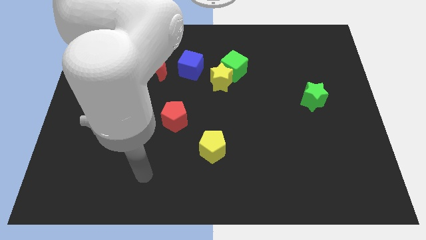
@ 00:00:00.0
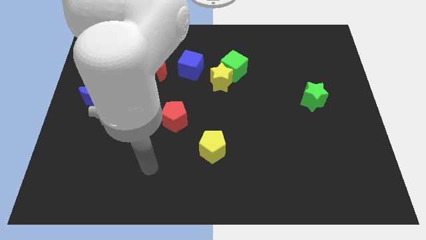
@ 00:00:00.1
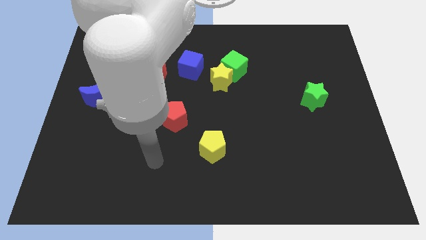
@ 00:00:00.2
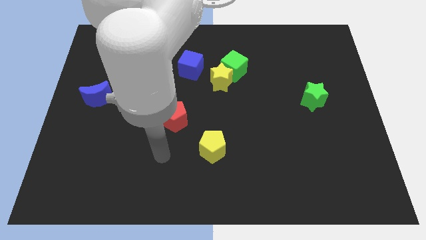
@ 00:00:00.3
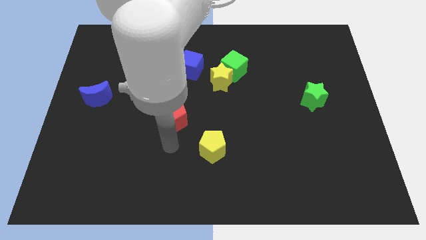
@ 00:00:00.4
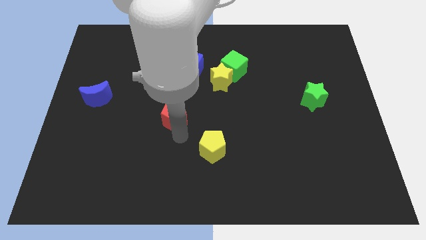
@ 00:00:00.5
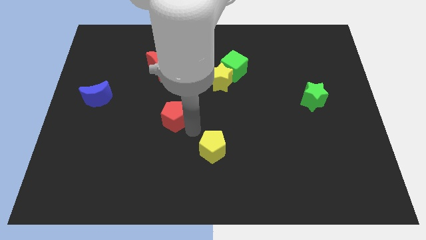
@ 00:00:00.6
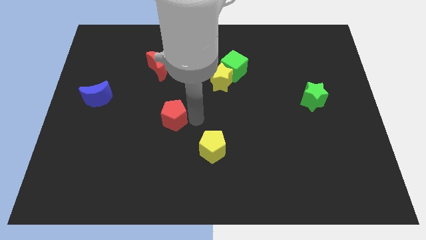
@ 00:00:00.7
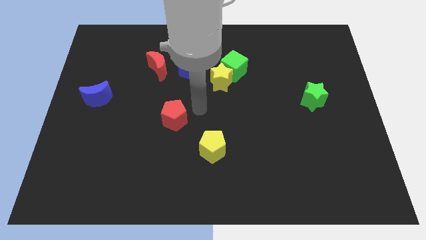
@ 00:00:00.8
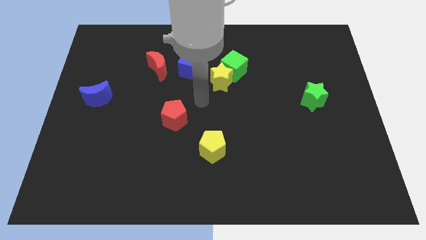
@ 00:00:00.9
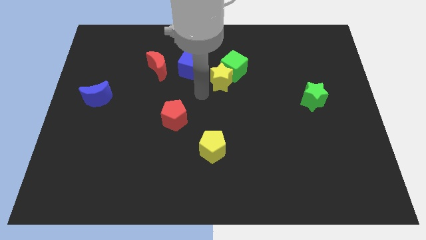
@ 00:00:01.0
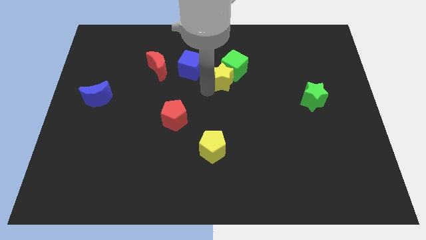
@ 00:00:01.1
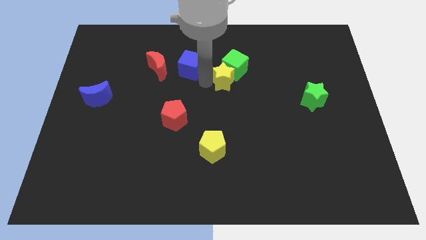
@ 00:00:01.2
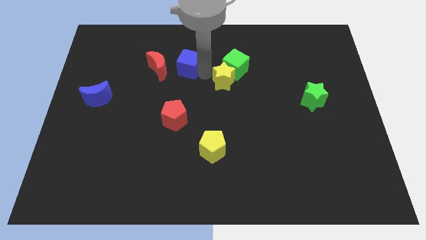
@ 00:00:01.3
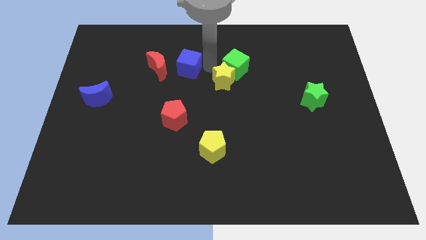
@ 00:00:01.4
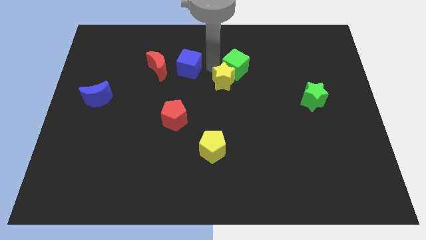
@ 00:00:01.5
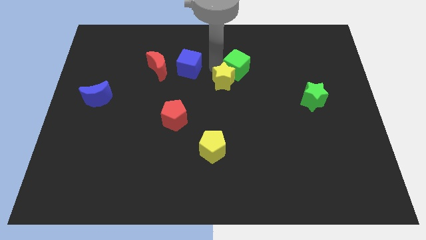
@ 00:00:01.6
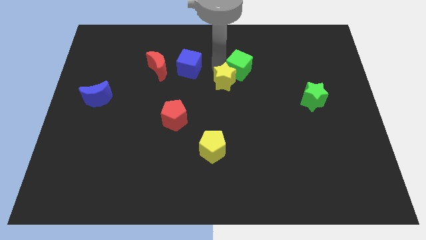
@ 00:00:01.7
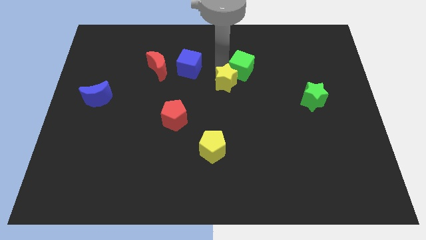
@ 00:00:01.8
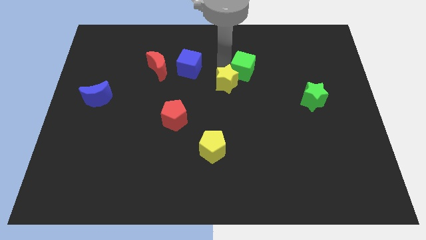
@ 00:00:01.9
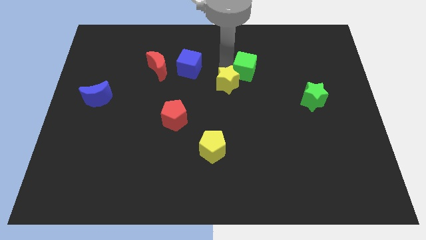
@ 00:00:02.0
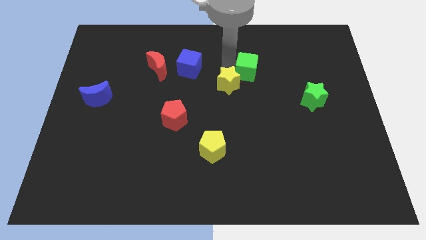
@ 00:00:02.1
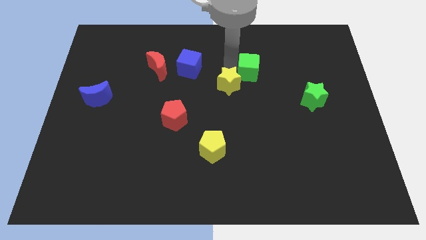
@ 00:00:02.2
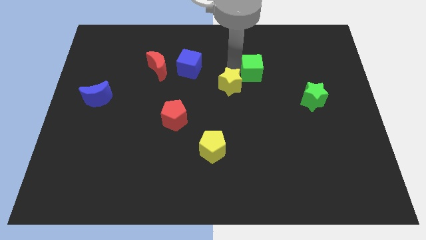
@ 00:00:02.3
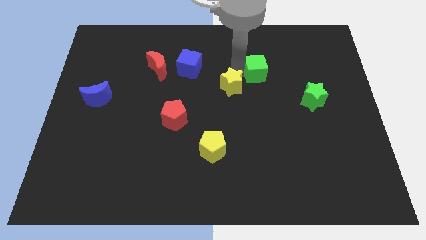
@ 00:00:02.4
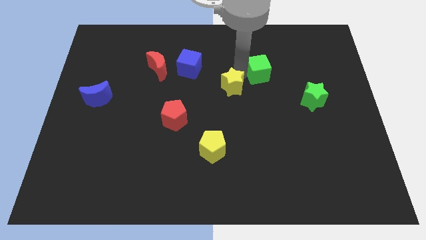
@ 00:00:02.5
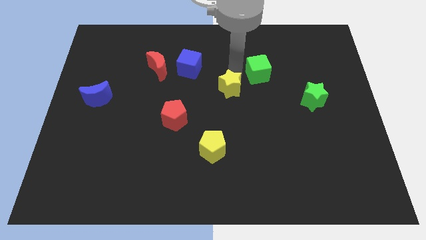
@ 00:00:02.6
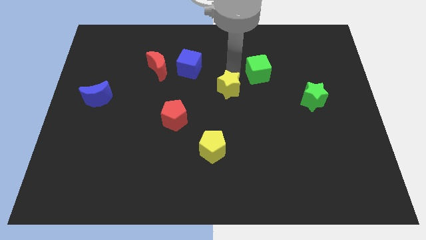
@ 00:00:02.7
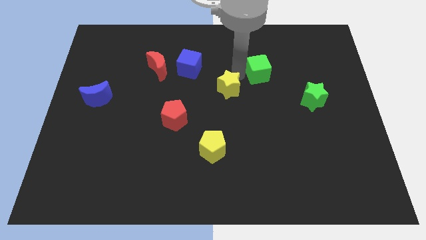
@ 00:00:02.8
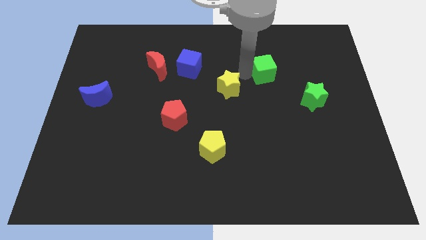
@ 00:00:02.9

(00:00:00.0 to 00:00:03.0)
slide the green cube right a little bit

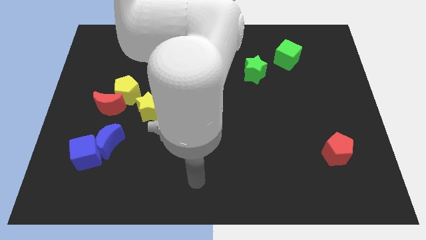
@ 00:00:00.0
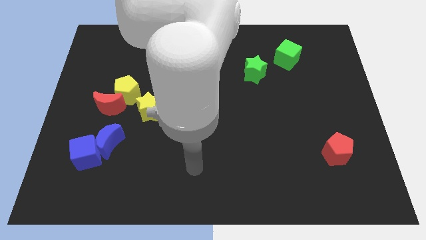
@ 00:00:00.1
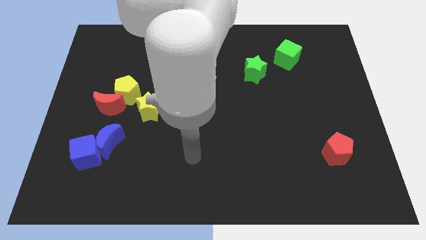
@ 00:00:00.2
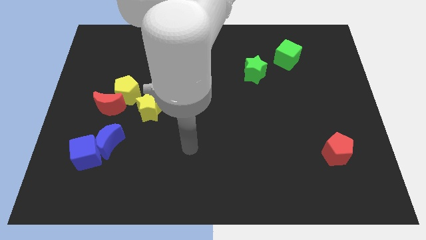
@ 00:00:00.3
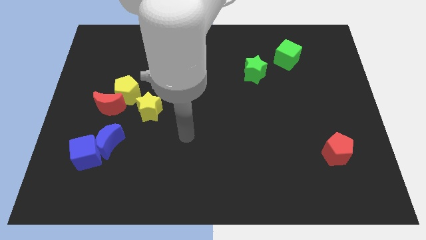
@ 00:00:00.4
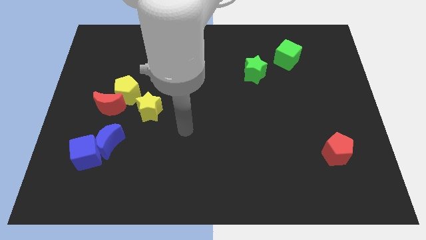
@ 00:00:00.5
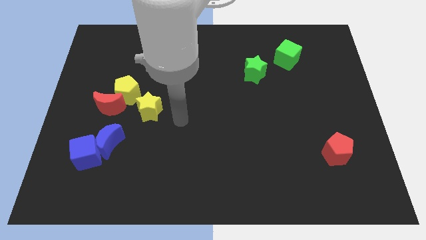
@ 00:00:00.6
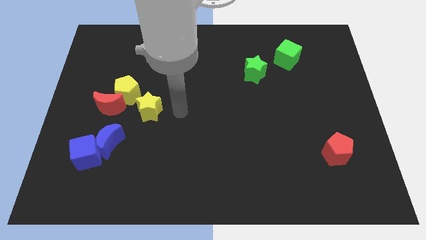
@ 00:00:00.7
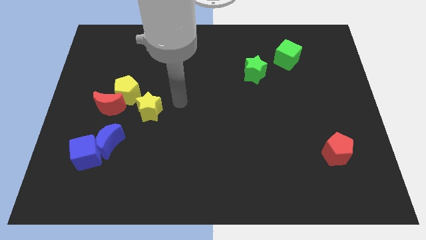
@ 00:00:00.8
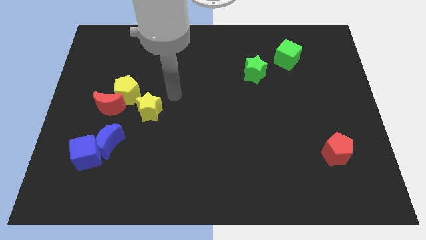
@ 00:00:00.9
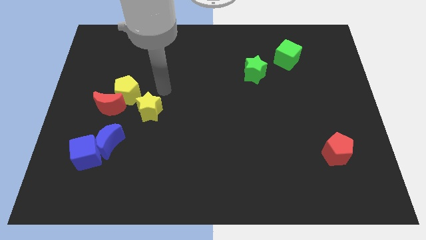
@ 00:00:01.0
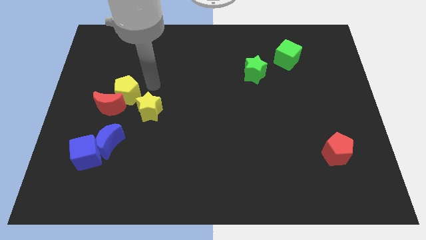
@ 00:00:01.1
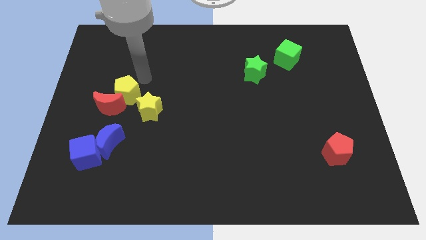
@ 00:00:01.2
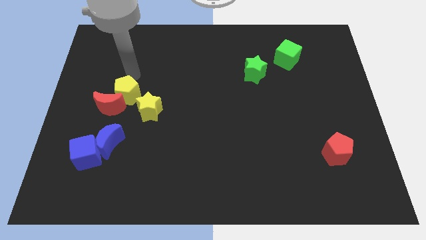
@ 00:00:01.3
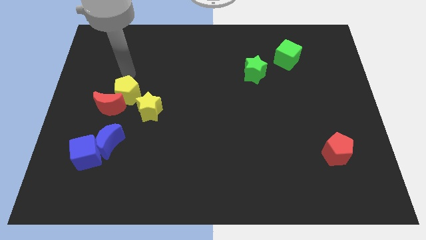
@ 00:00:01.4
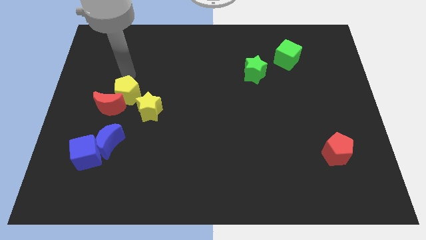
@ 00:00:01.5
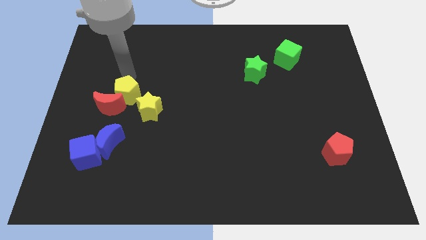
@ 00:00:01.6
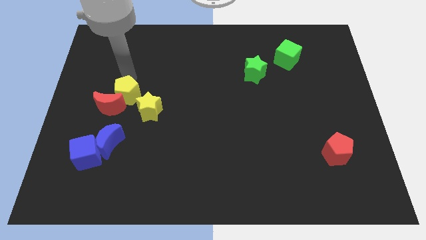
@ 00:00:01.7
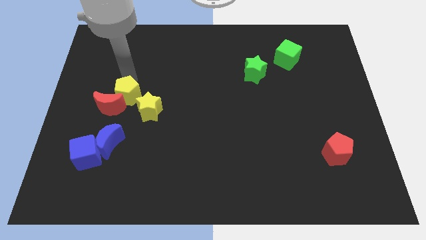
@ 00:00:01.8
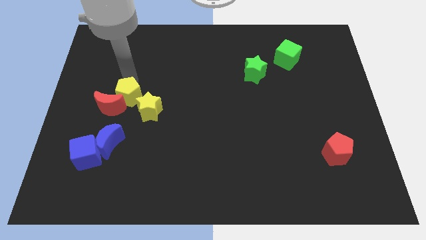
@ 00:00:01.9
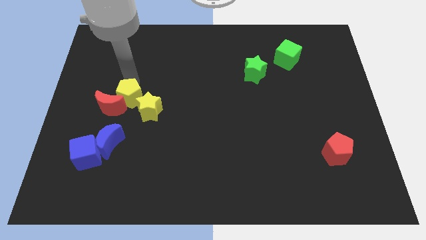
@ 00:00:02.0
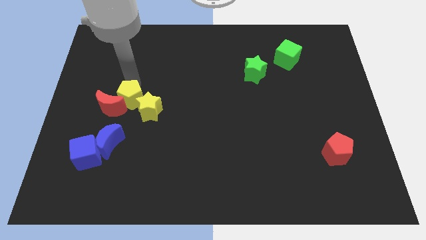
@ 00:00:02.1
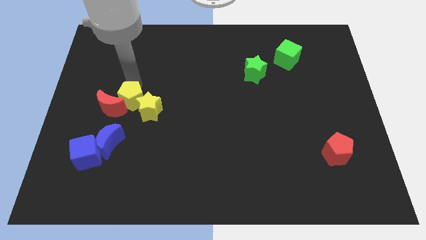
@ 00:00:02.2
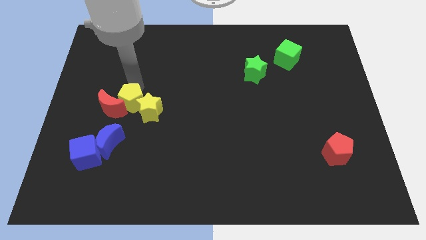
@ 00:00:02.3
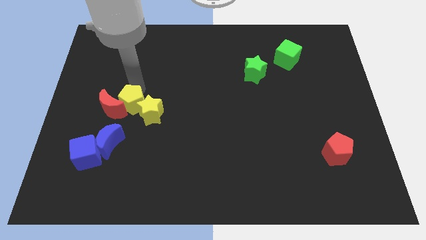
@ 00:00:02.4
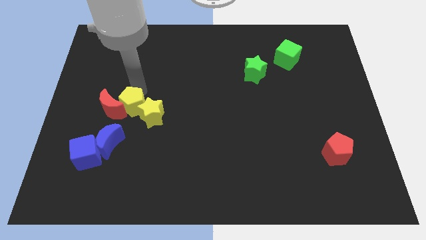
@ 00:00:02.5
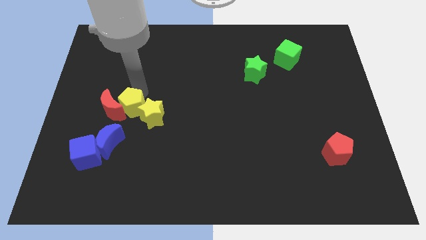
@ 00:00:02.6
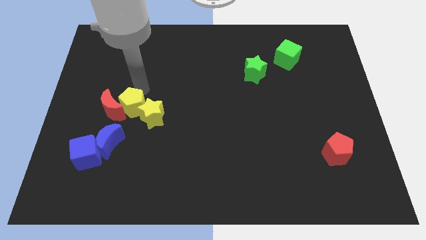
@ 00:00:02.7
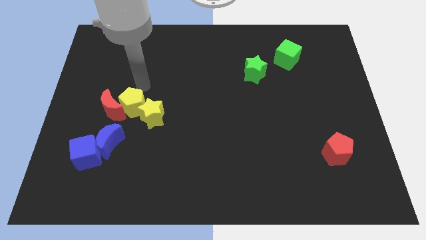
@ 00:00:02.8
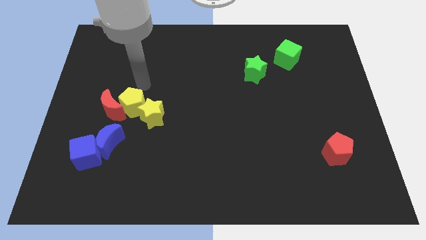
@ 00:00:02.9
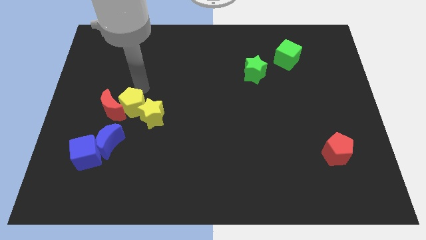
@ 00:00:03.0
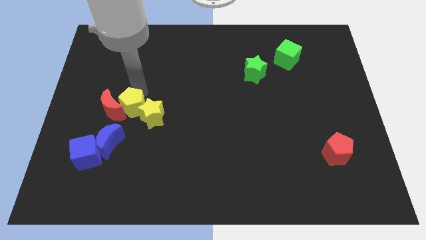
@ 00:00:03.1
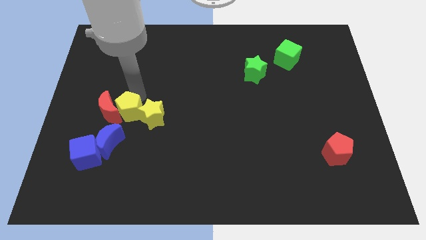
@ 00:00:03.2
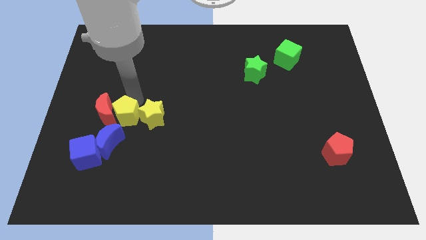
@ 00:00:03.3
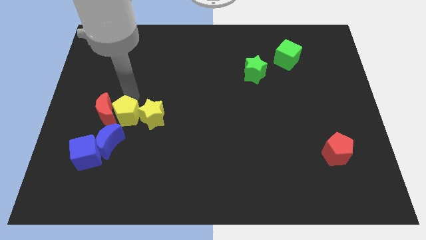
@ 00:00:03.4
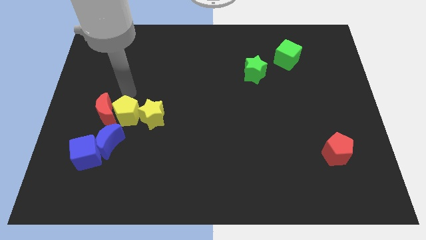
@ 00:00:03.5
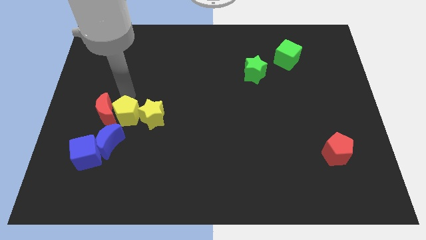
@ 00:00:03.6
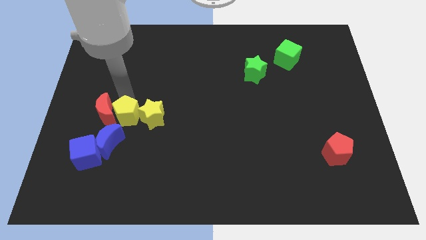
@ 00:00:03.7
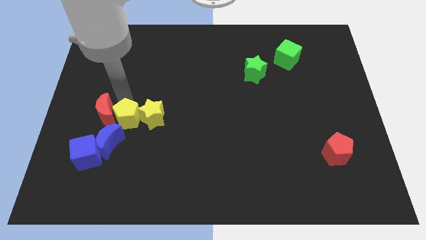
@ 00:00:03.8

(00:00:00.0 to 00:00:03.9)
slightly slide the yellow pentagon down

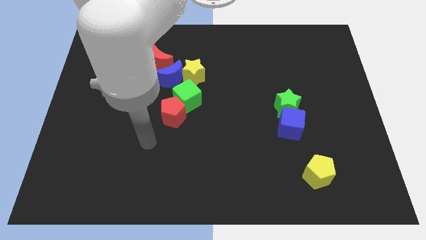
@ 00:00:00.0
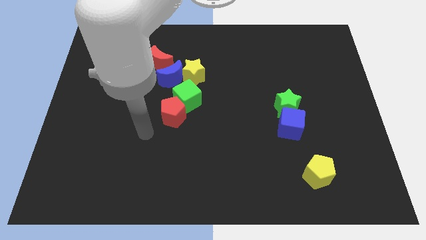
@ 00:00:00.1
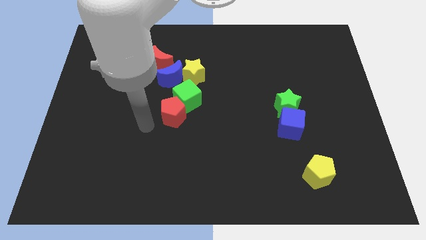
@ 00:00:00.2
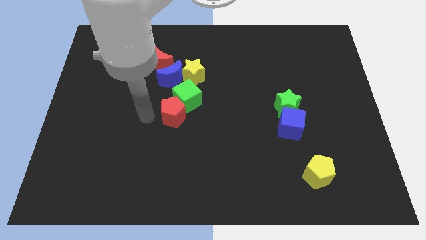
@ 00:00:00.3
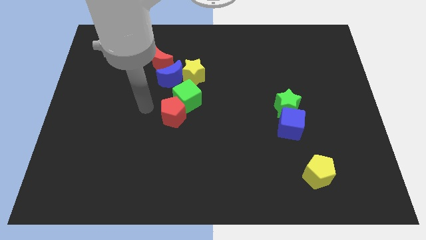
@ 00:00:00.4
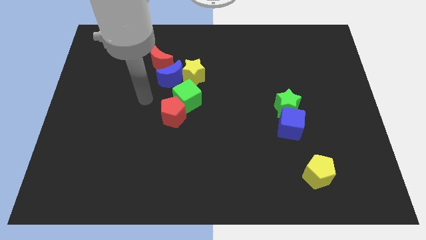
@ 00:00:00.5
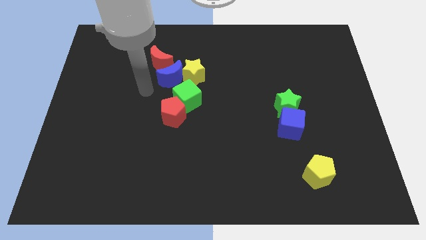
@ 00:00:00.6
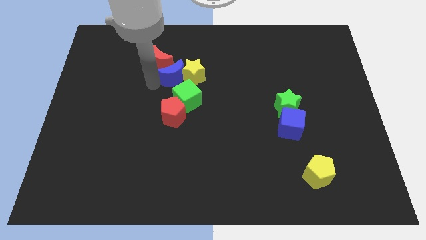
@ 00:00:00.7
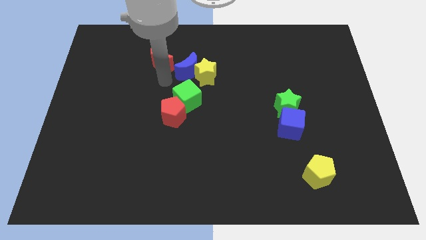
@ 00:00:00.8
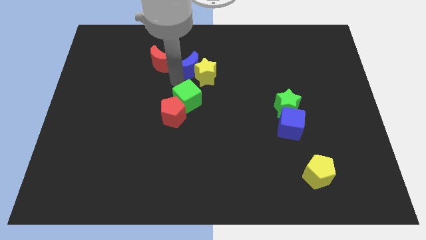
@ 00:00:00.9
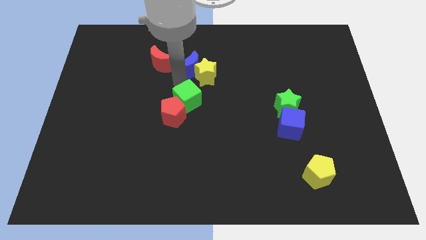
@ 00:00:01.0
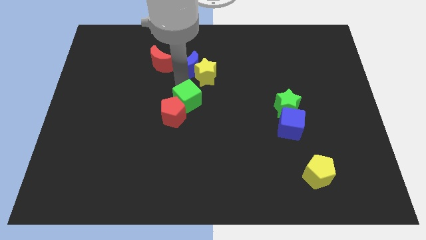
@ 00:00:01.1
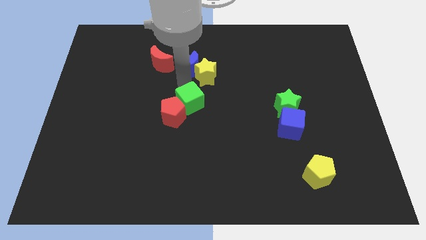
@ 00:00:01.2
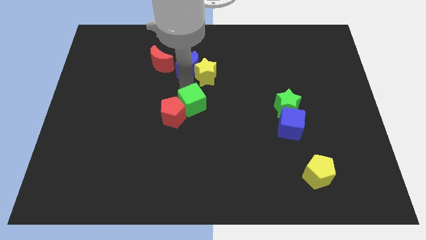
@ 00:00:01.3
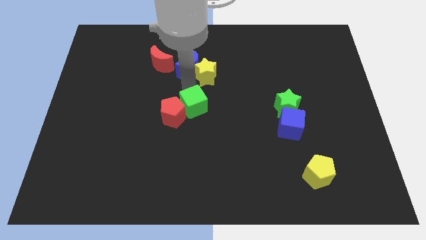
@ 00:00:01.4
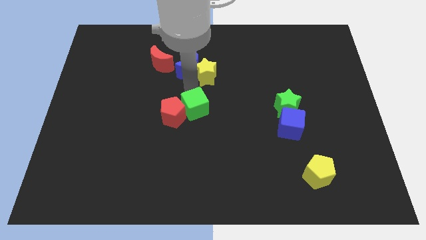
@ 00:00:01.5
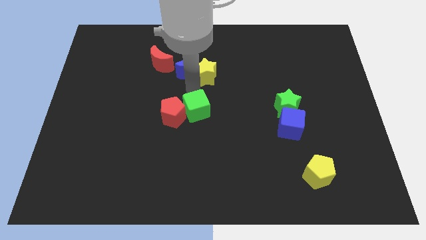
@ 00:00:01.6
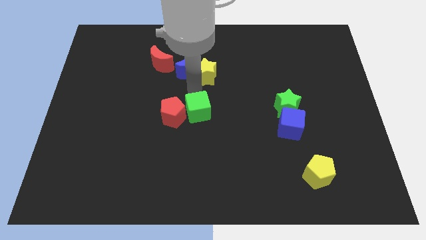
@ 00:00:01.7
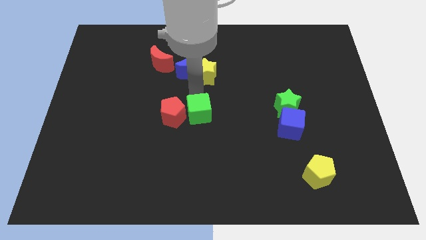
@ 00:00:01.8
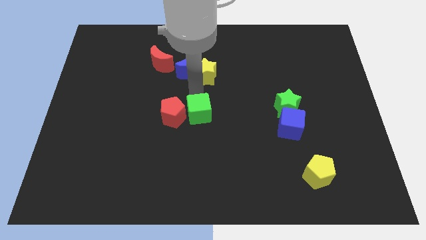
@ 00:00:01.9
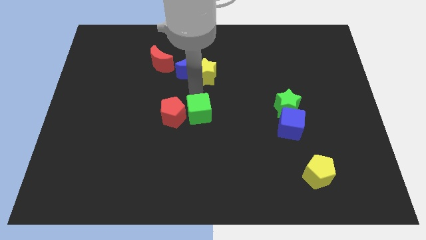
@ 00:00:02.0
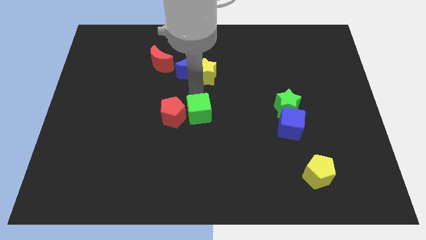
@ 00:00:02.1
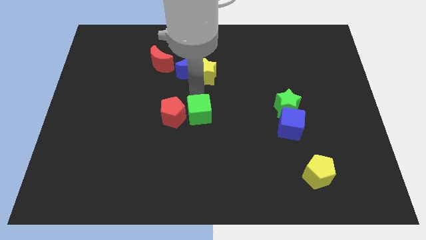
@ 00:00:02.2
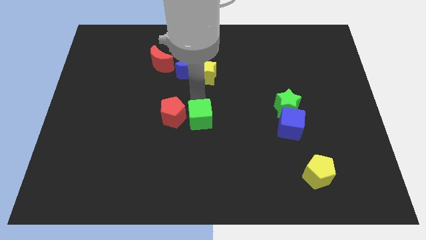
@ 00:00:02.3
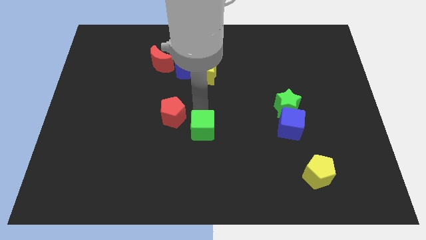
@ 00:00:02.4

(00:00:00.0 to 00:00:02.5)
slightly move the green cube downwards
